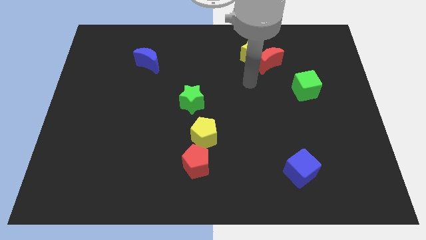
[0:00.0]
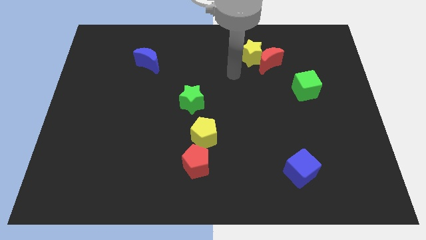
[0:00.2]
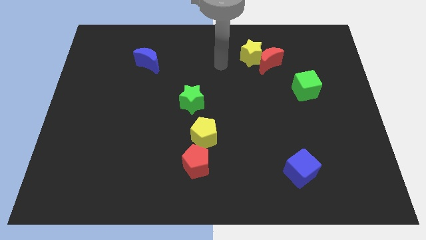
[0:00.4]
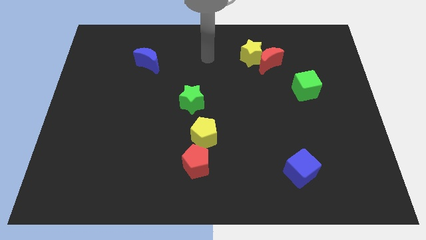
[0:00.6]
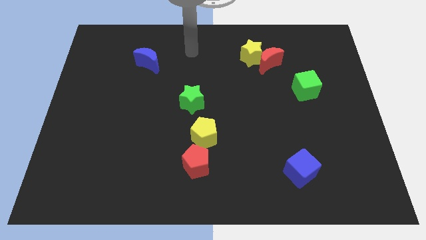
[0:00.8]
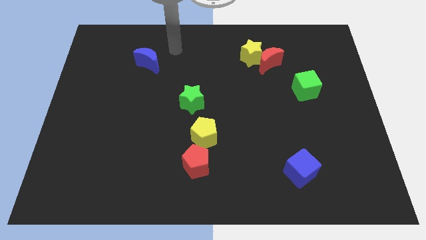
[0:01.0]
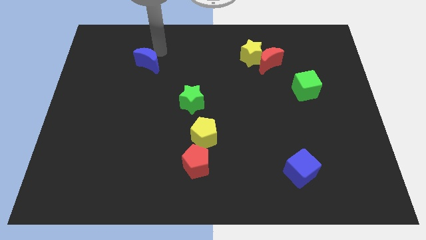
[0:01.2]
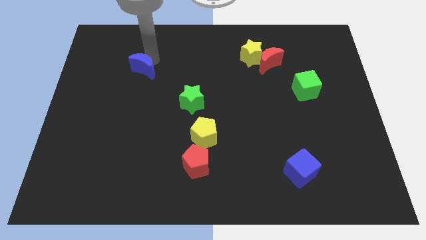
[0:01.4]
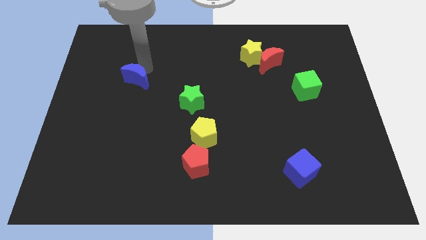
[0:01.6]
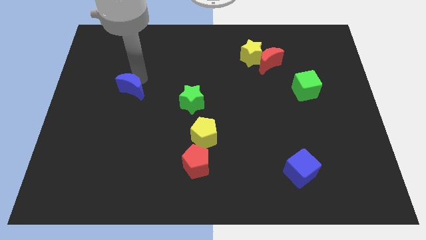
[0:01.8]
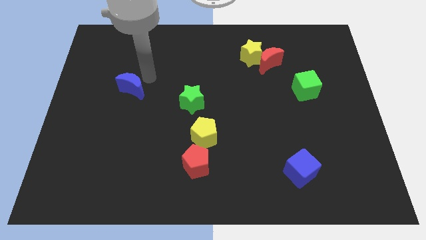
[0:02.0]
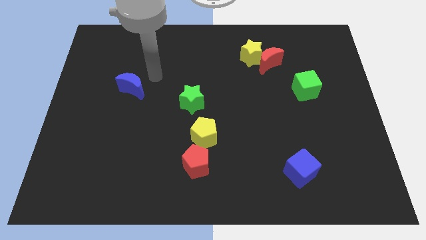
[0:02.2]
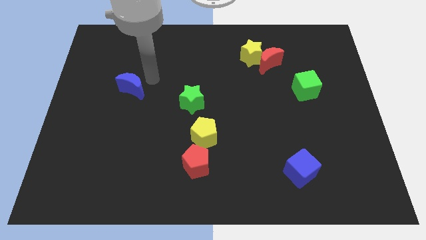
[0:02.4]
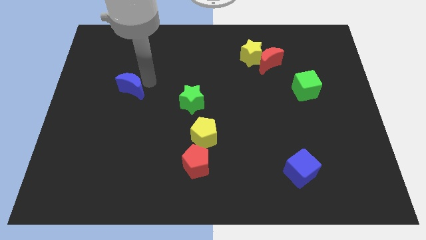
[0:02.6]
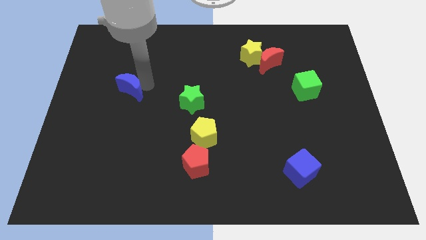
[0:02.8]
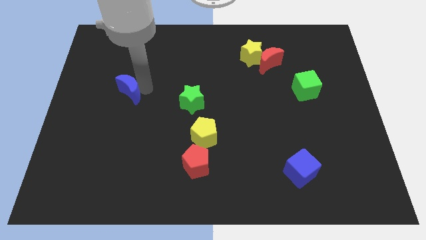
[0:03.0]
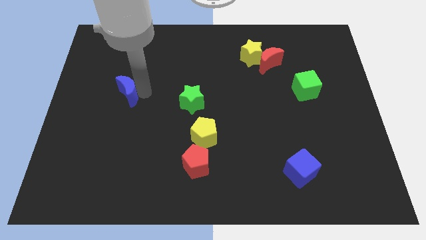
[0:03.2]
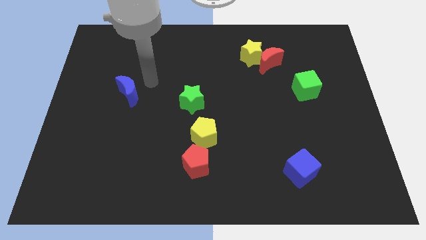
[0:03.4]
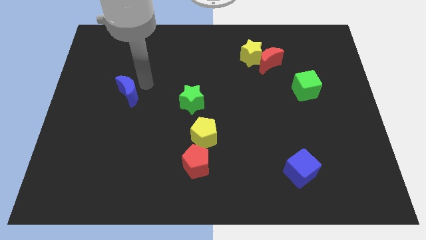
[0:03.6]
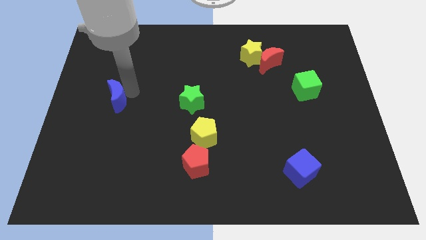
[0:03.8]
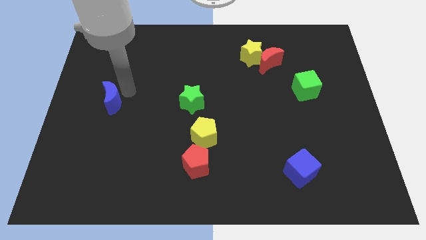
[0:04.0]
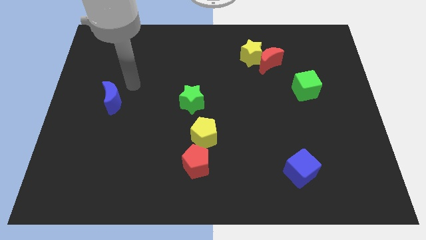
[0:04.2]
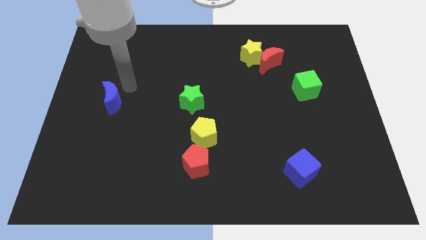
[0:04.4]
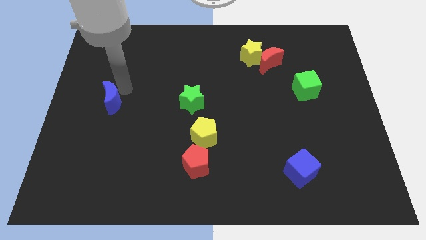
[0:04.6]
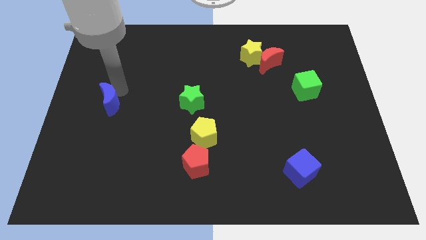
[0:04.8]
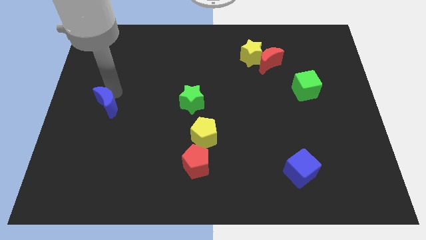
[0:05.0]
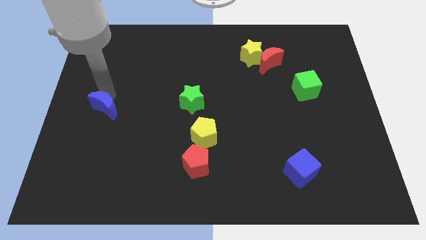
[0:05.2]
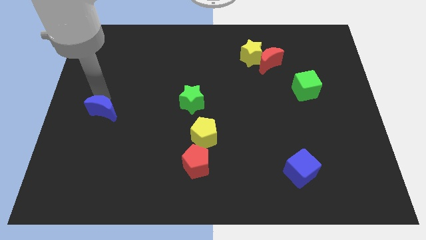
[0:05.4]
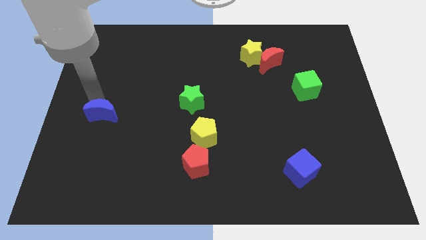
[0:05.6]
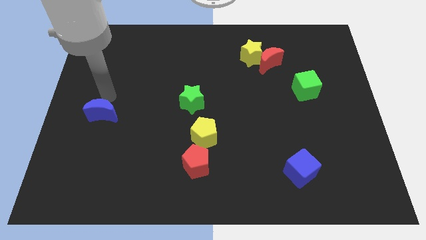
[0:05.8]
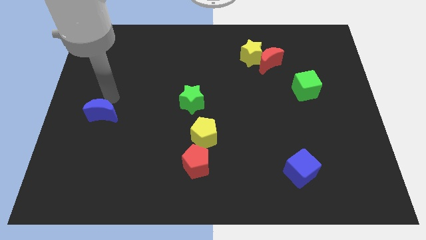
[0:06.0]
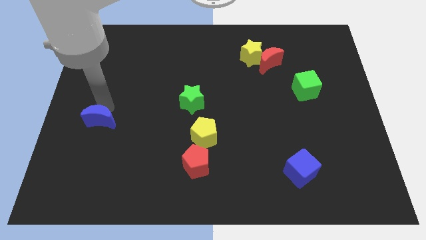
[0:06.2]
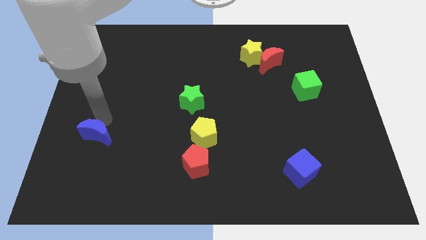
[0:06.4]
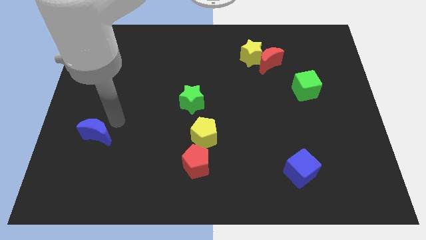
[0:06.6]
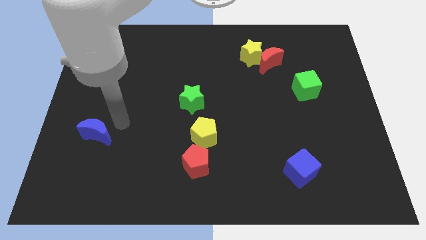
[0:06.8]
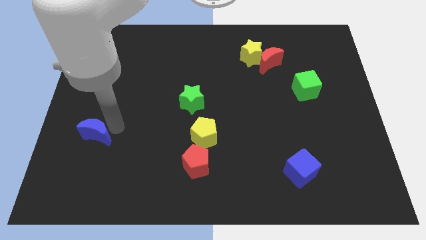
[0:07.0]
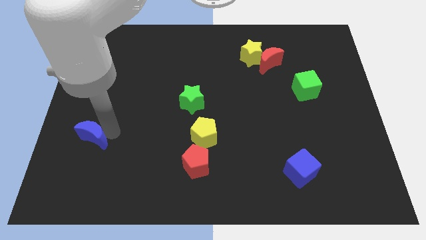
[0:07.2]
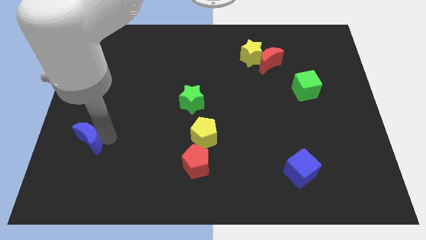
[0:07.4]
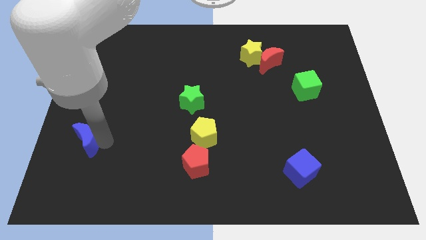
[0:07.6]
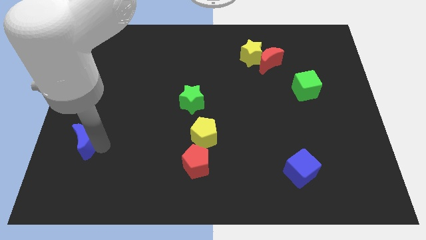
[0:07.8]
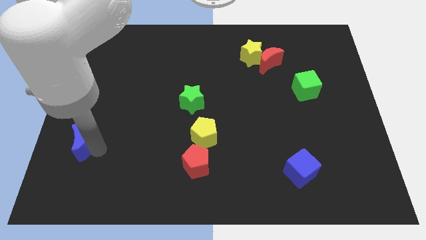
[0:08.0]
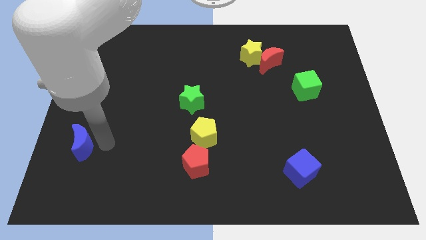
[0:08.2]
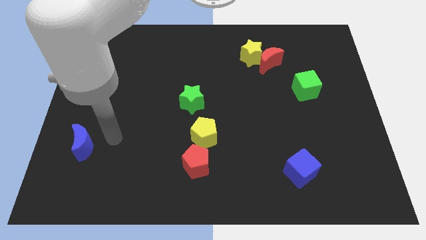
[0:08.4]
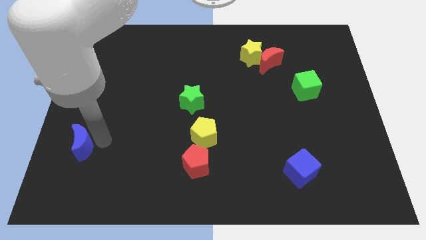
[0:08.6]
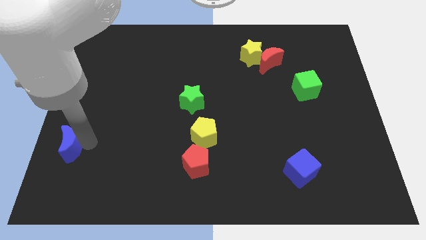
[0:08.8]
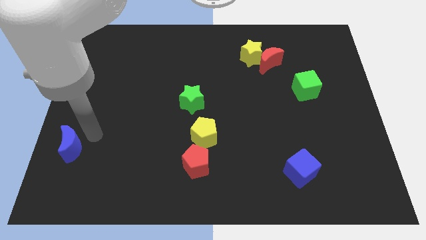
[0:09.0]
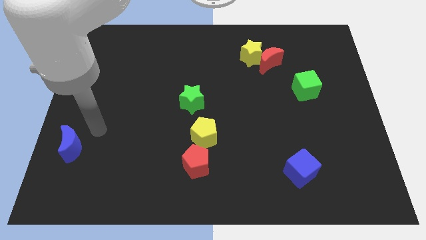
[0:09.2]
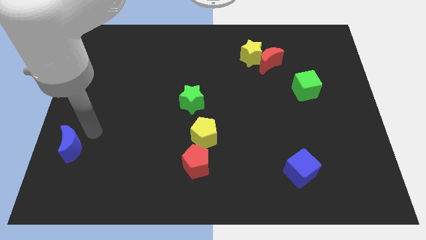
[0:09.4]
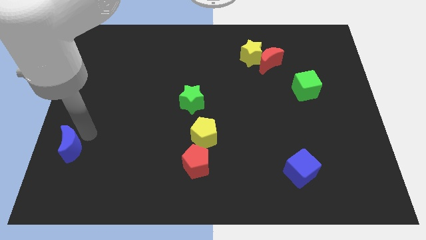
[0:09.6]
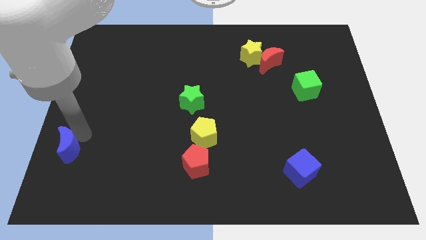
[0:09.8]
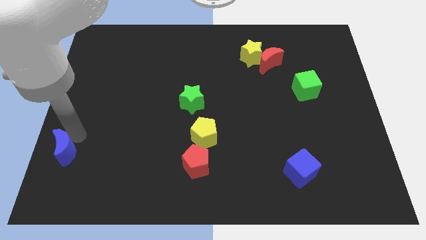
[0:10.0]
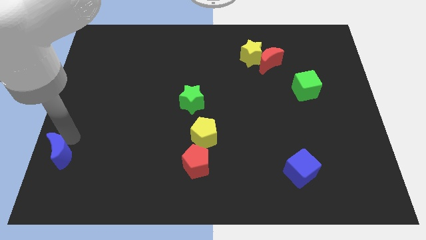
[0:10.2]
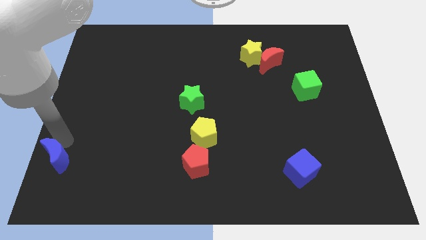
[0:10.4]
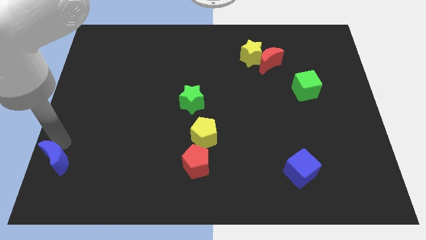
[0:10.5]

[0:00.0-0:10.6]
slide the blue moon to the bottom left of the board

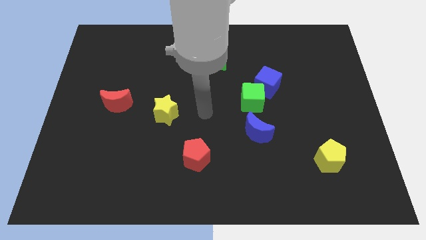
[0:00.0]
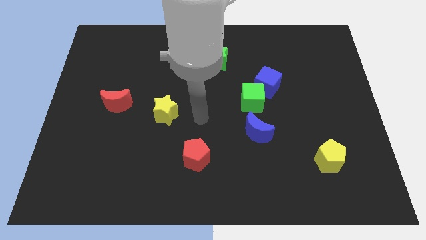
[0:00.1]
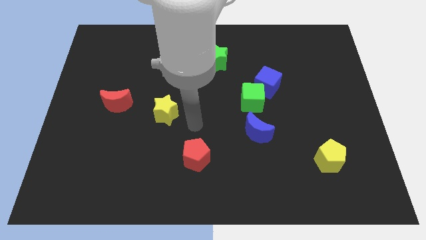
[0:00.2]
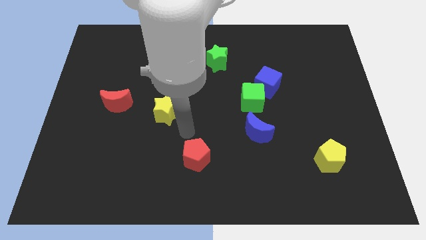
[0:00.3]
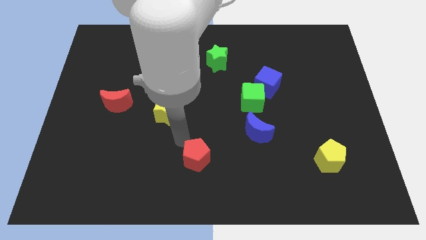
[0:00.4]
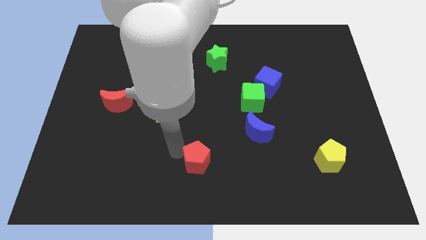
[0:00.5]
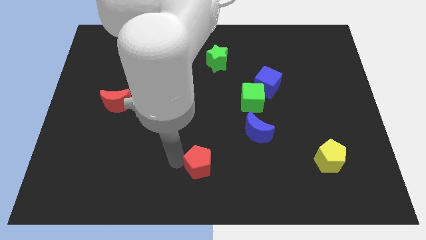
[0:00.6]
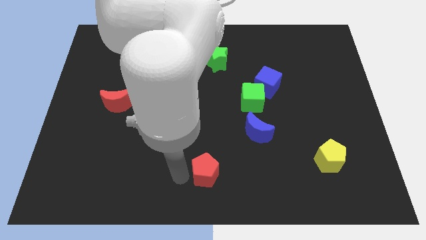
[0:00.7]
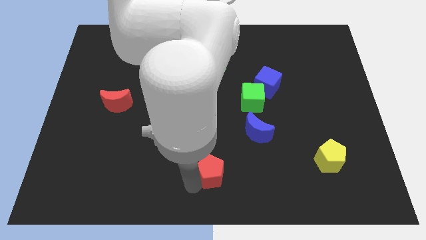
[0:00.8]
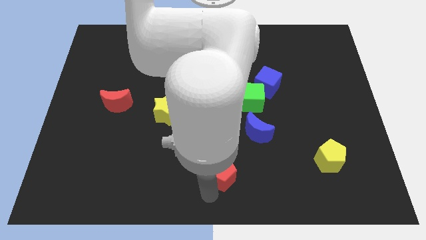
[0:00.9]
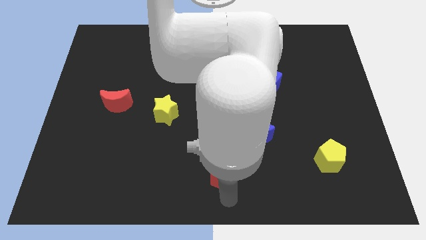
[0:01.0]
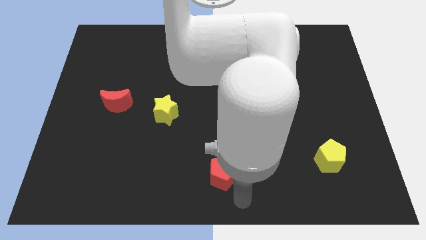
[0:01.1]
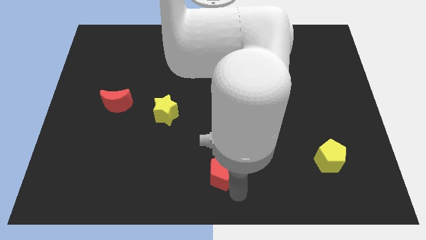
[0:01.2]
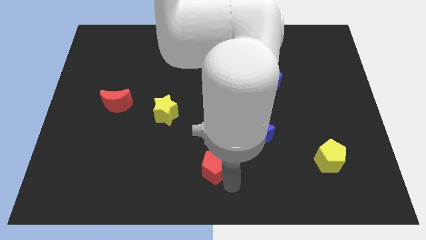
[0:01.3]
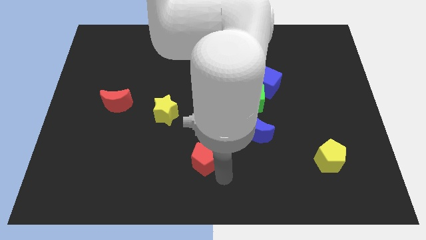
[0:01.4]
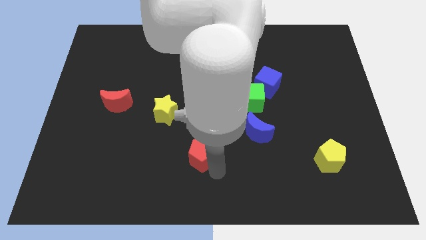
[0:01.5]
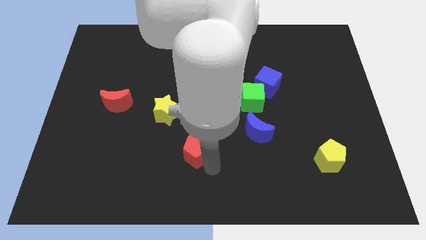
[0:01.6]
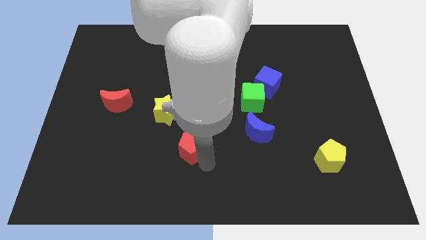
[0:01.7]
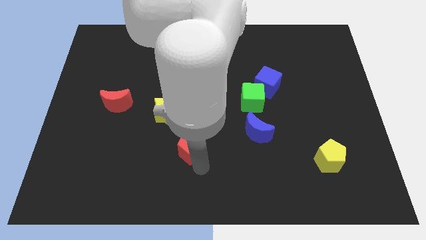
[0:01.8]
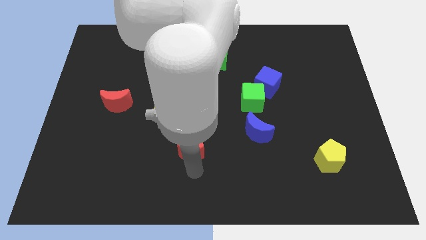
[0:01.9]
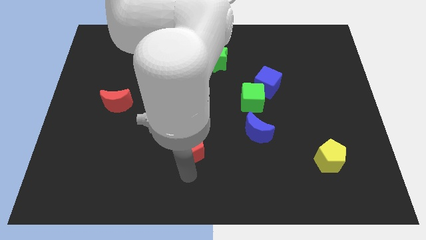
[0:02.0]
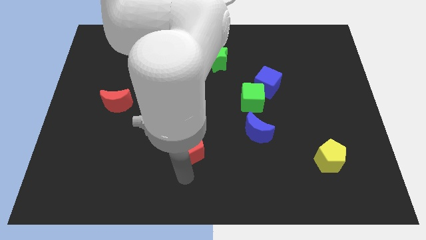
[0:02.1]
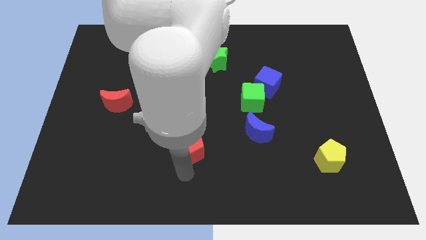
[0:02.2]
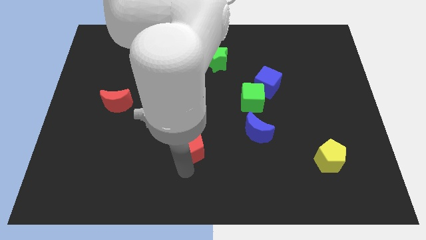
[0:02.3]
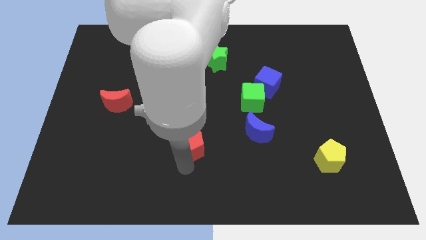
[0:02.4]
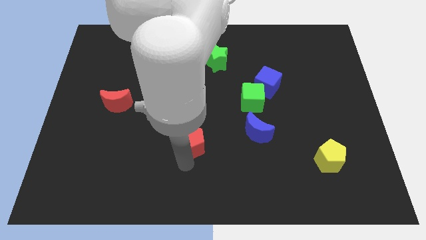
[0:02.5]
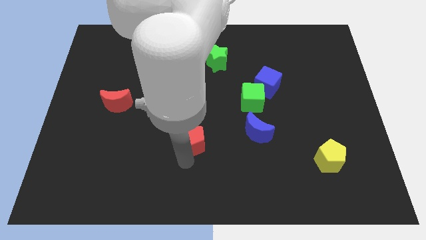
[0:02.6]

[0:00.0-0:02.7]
slide the red pentagon to the center
